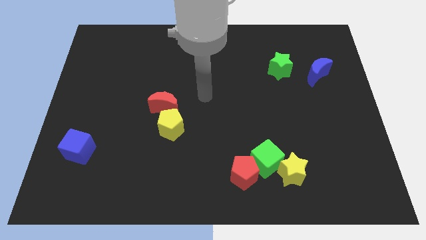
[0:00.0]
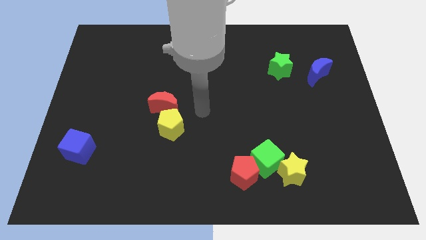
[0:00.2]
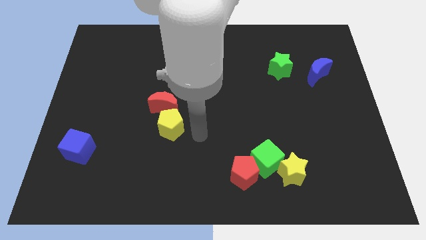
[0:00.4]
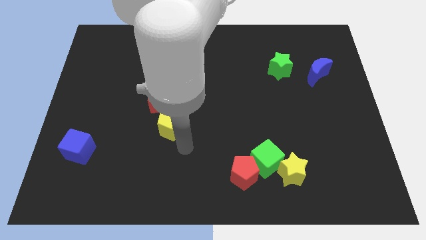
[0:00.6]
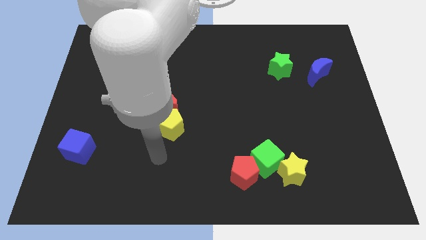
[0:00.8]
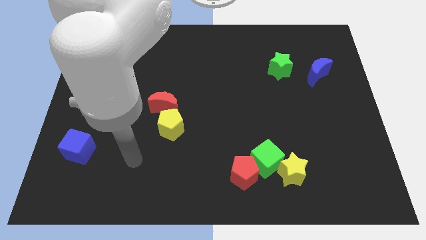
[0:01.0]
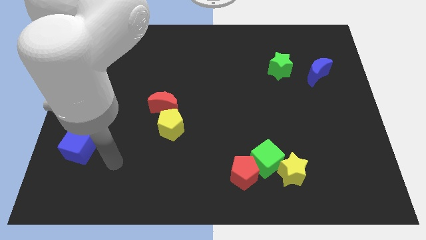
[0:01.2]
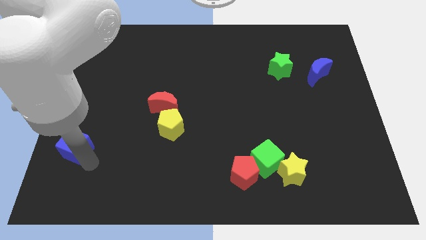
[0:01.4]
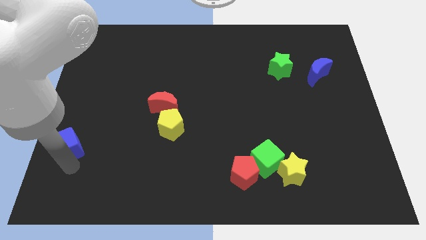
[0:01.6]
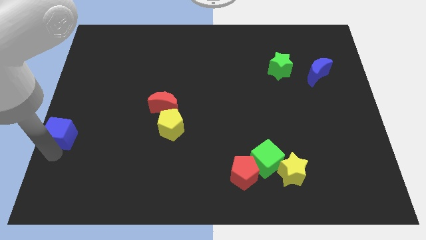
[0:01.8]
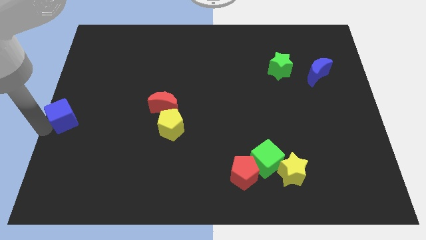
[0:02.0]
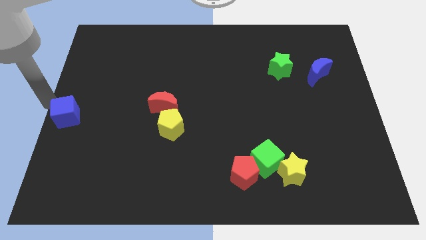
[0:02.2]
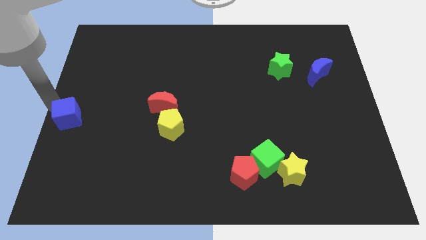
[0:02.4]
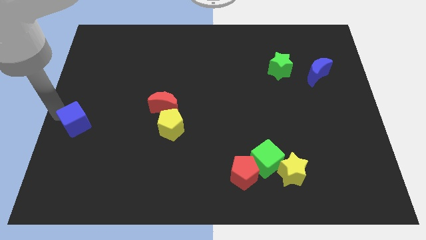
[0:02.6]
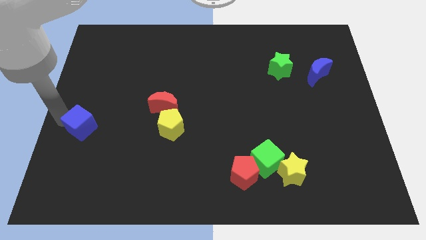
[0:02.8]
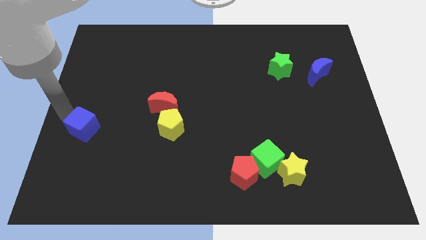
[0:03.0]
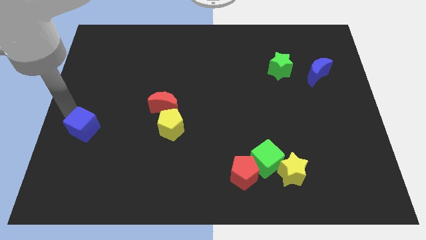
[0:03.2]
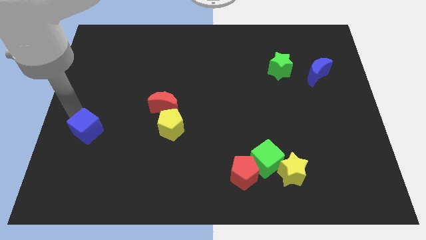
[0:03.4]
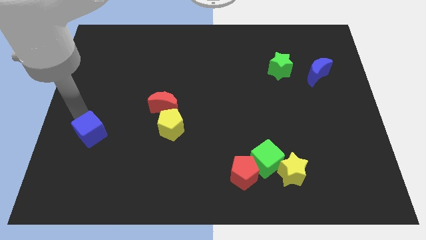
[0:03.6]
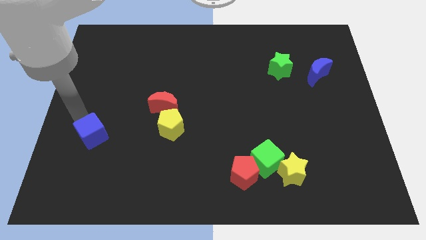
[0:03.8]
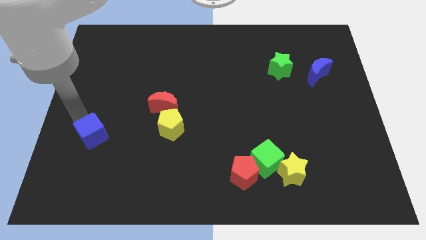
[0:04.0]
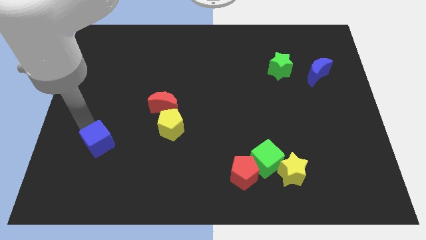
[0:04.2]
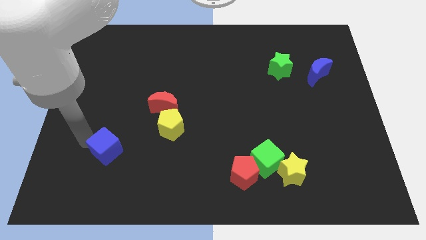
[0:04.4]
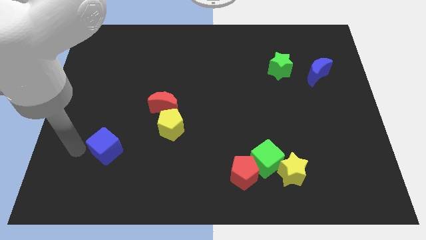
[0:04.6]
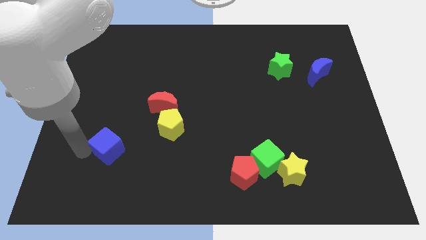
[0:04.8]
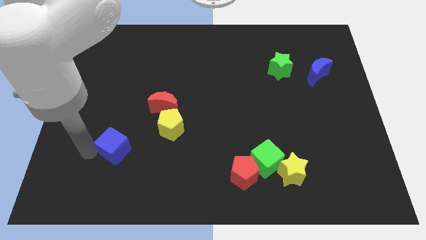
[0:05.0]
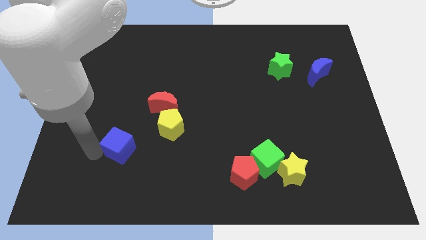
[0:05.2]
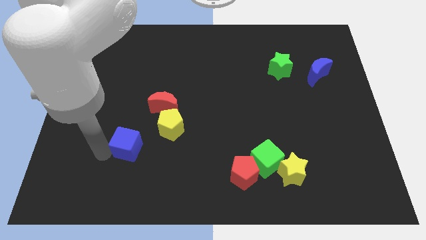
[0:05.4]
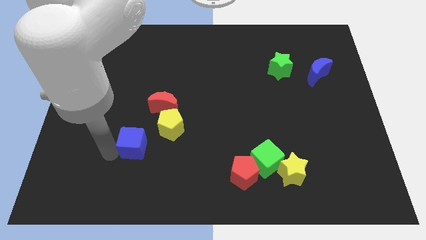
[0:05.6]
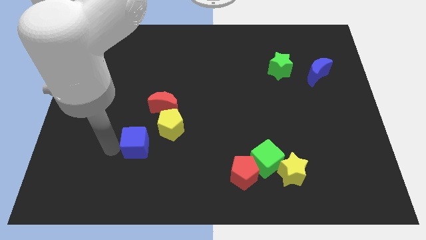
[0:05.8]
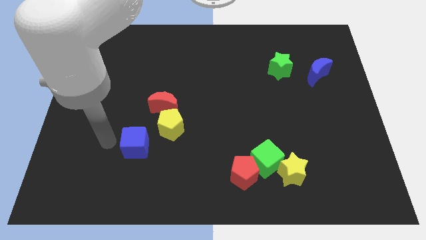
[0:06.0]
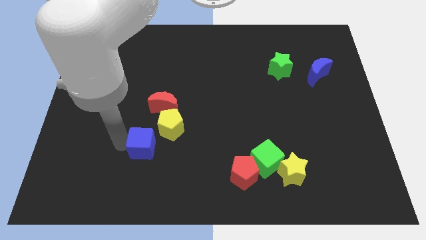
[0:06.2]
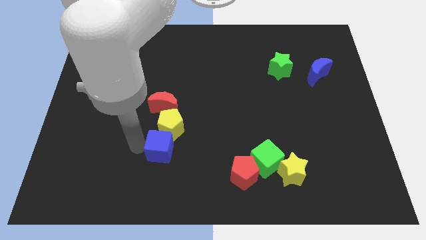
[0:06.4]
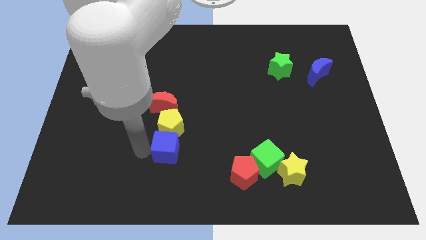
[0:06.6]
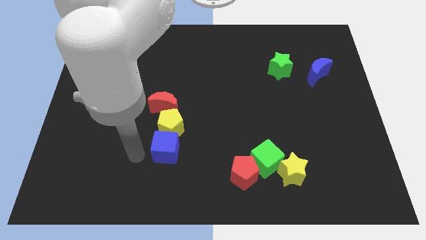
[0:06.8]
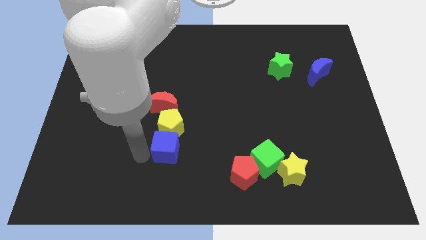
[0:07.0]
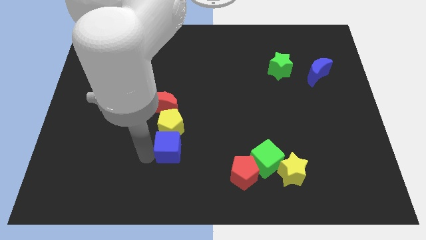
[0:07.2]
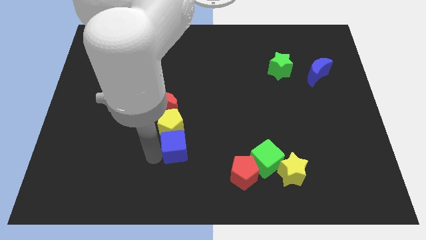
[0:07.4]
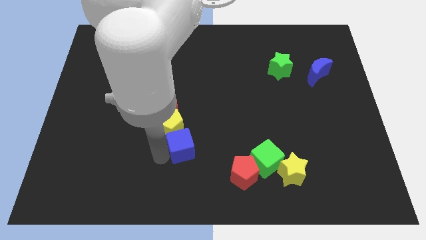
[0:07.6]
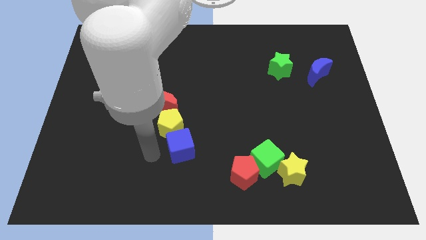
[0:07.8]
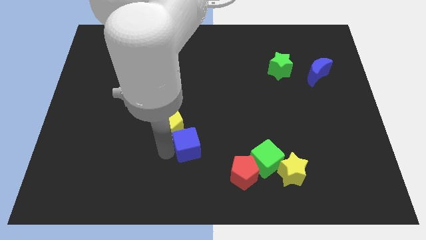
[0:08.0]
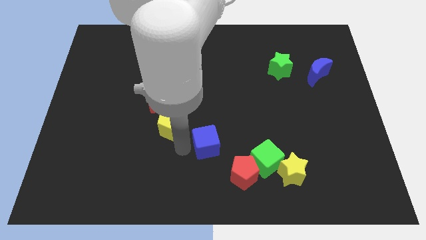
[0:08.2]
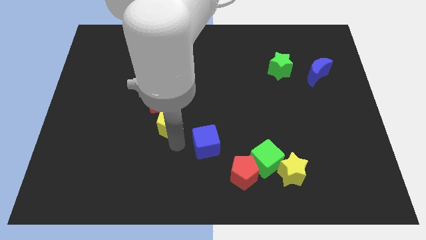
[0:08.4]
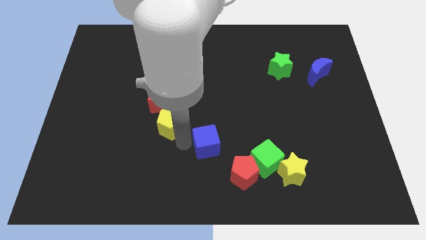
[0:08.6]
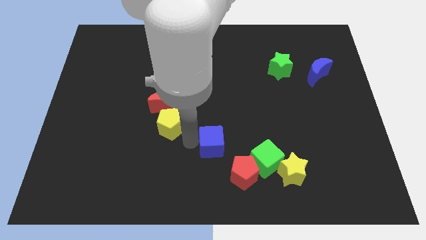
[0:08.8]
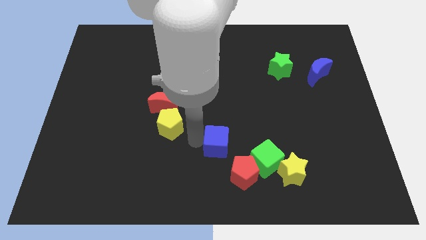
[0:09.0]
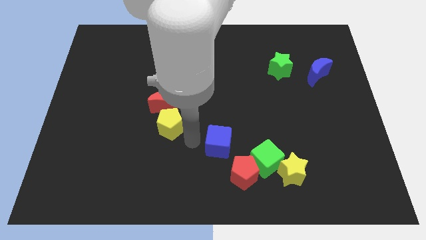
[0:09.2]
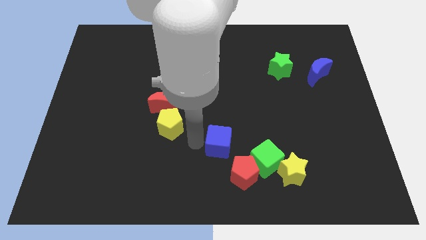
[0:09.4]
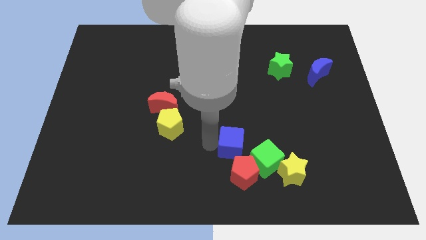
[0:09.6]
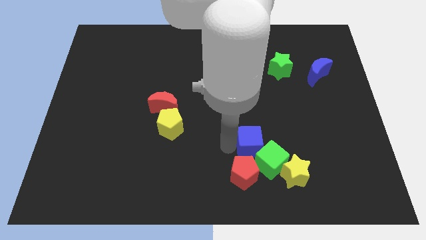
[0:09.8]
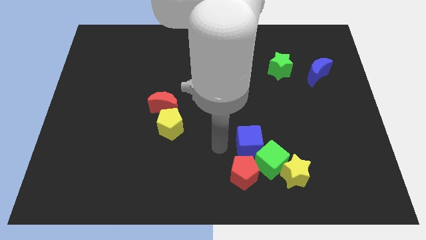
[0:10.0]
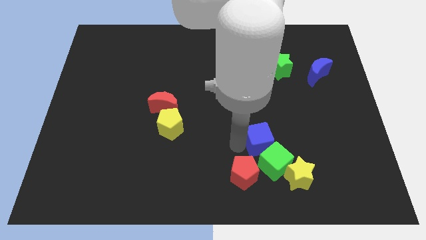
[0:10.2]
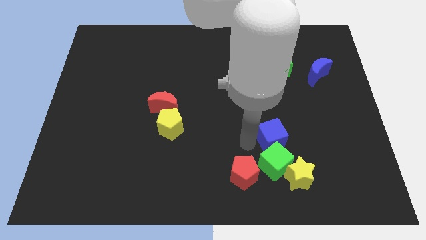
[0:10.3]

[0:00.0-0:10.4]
slide the blue cube diagonally up and to the right of the green cube

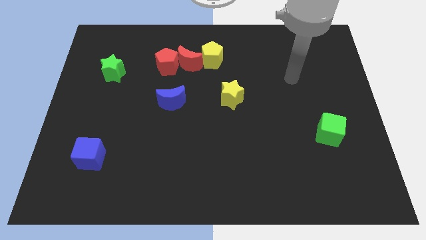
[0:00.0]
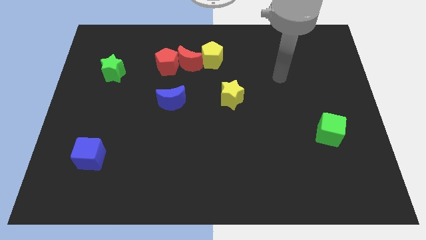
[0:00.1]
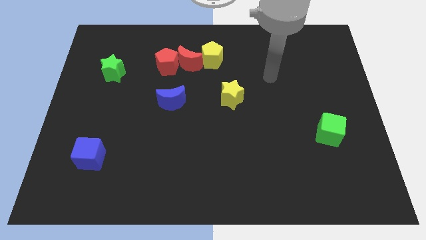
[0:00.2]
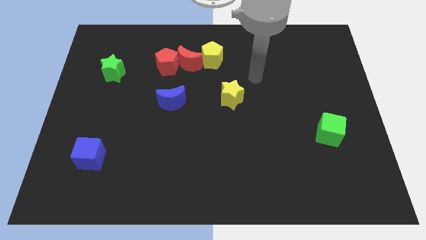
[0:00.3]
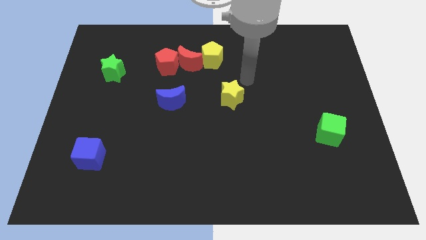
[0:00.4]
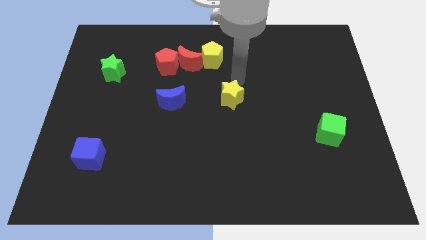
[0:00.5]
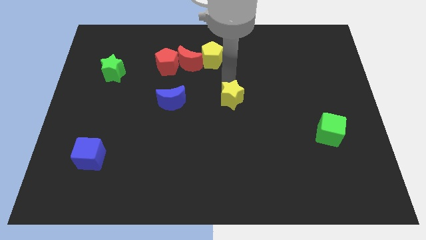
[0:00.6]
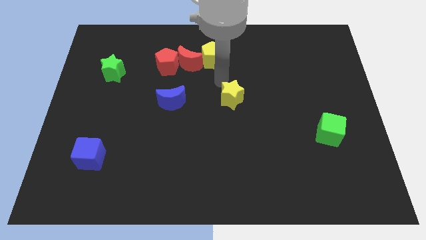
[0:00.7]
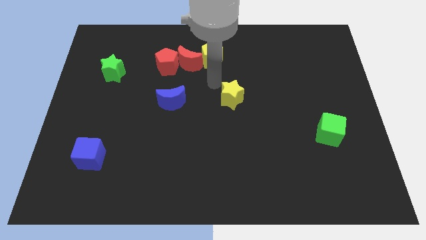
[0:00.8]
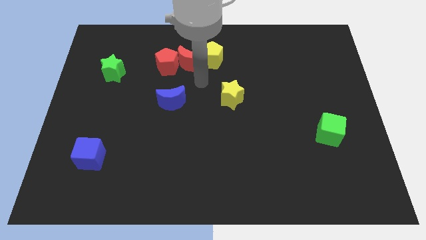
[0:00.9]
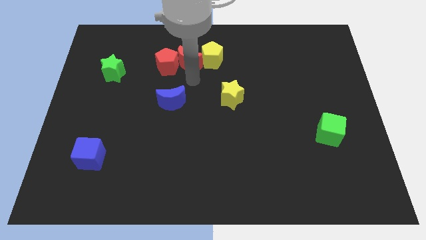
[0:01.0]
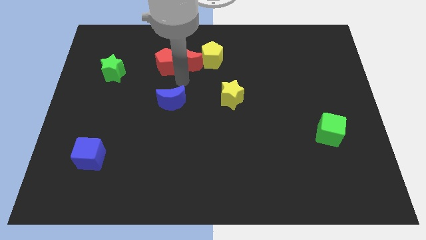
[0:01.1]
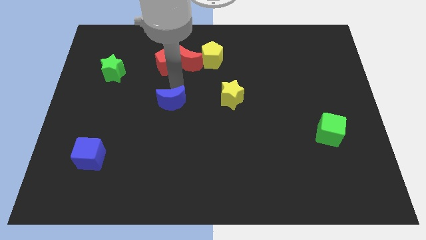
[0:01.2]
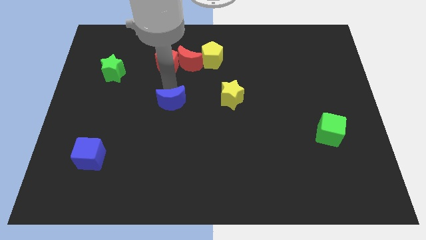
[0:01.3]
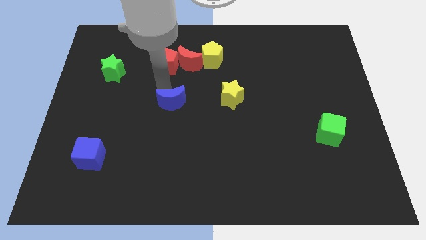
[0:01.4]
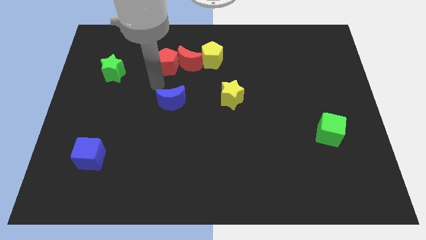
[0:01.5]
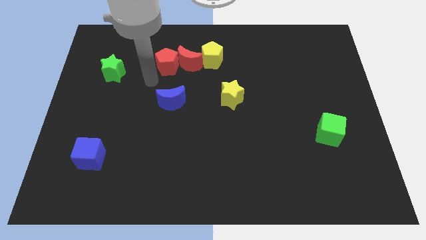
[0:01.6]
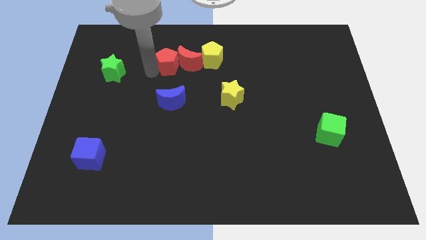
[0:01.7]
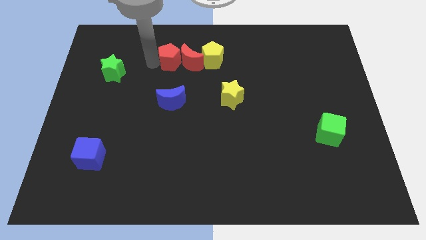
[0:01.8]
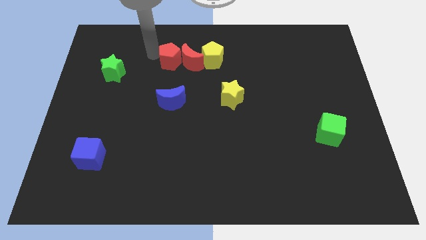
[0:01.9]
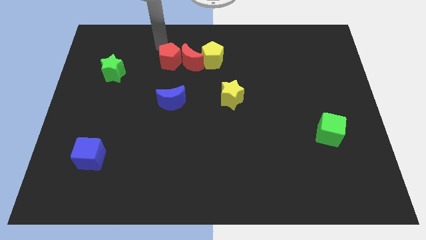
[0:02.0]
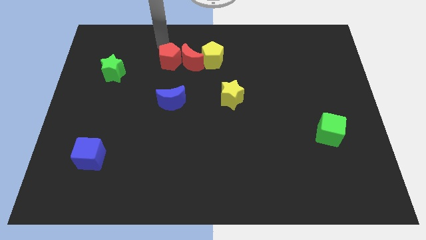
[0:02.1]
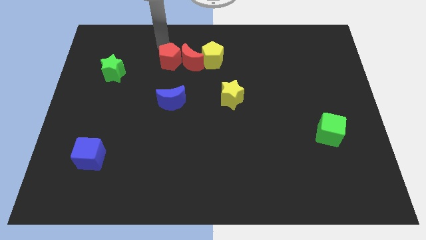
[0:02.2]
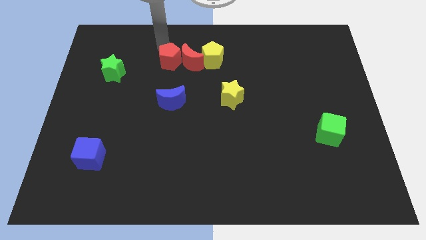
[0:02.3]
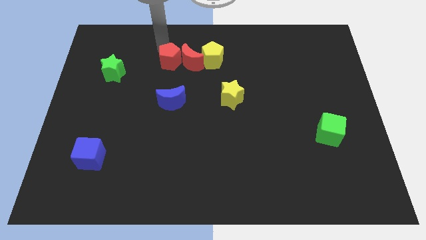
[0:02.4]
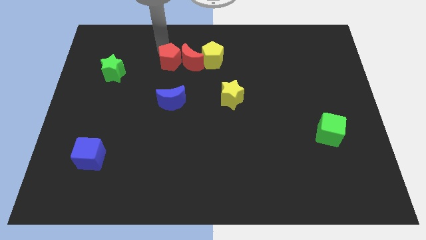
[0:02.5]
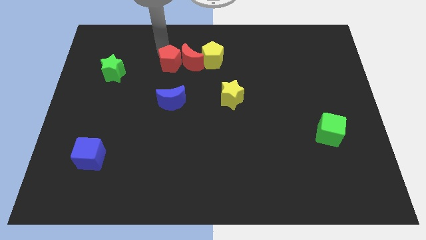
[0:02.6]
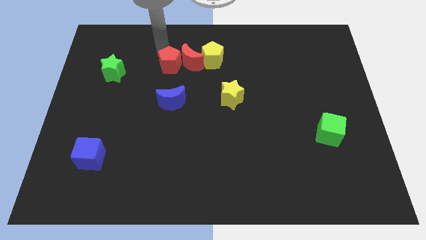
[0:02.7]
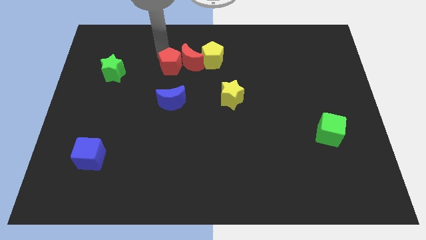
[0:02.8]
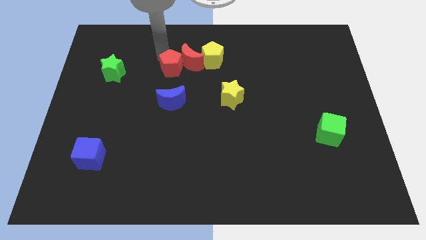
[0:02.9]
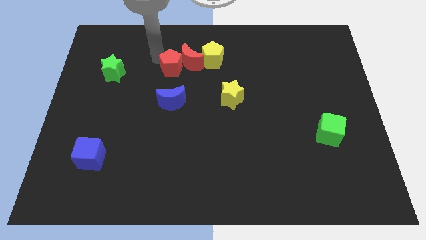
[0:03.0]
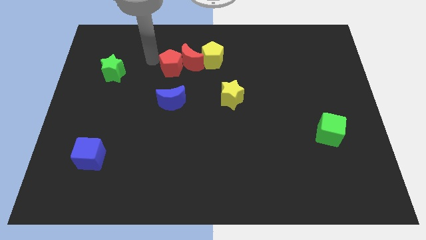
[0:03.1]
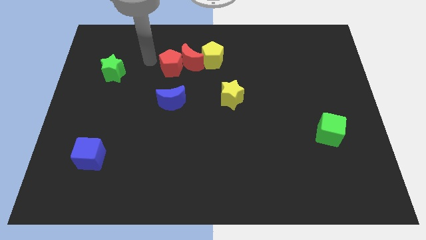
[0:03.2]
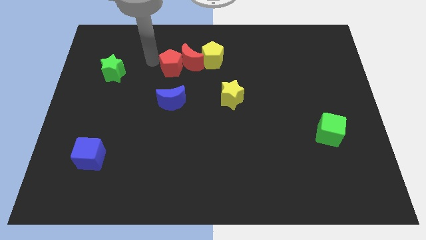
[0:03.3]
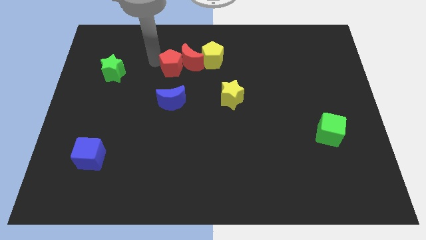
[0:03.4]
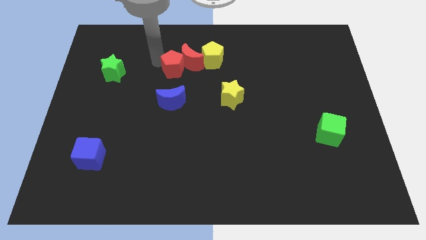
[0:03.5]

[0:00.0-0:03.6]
push the red pentagon to the bottom left of the yellow pentagon
